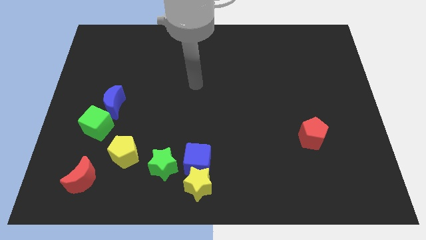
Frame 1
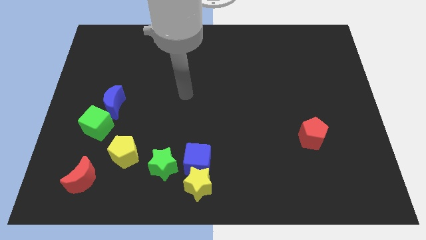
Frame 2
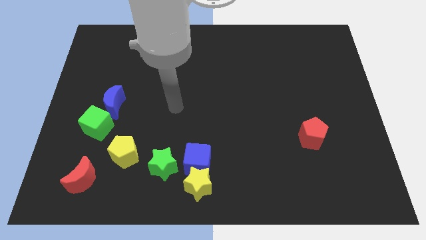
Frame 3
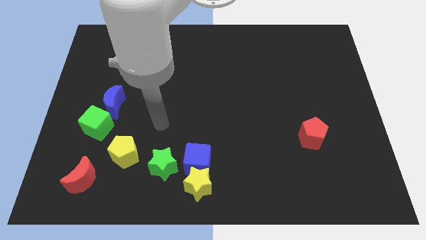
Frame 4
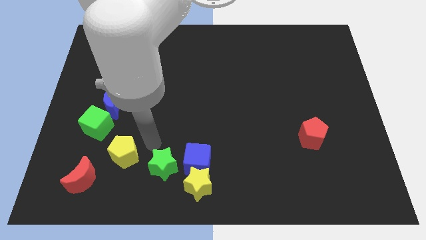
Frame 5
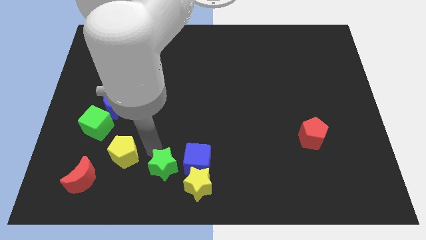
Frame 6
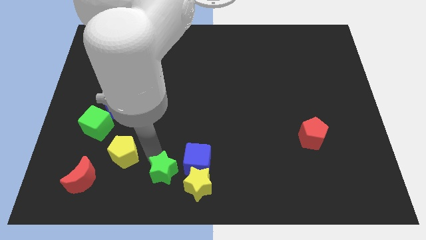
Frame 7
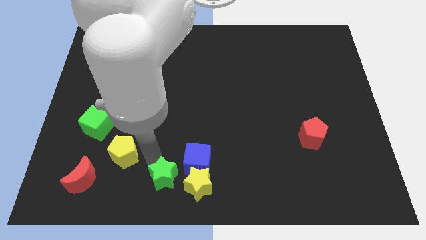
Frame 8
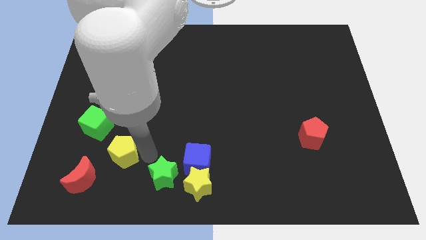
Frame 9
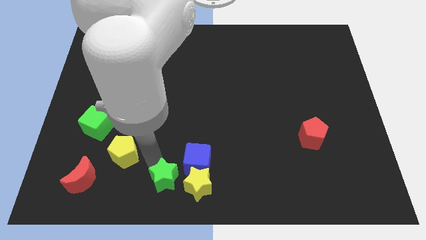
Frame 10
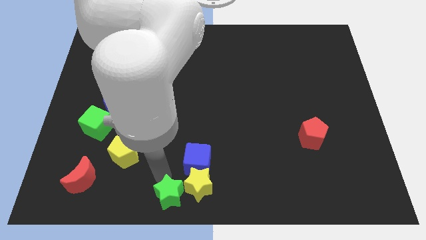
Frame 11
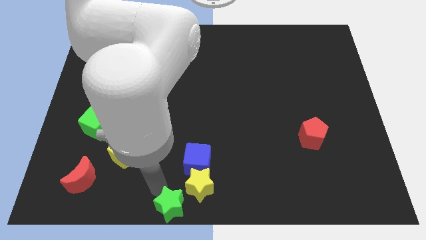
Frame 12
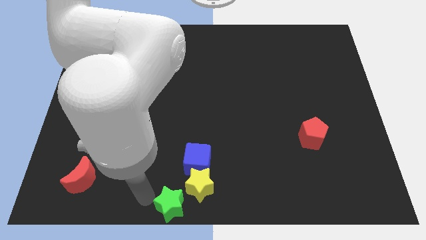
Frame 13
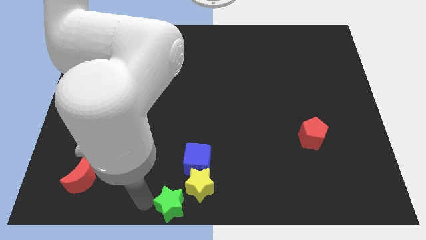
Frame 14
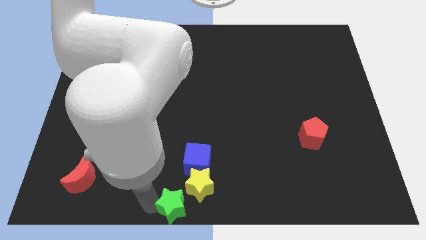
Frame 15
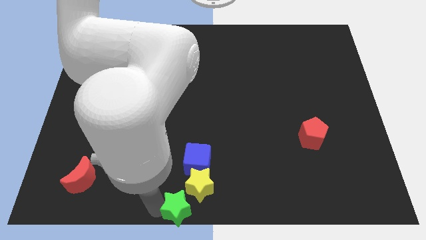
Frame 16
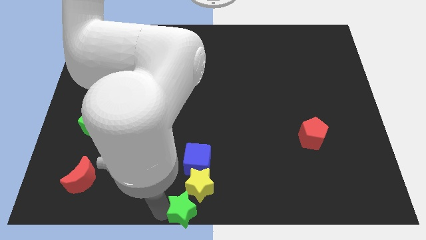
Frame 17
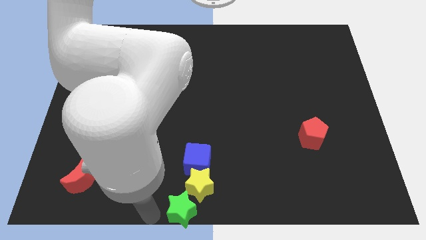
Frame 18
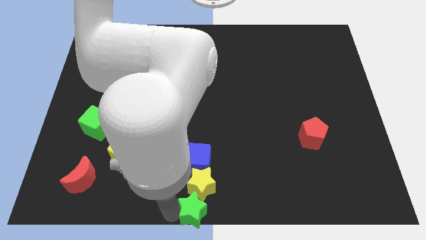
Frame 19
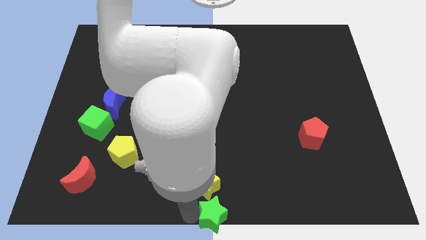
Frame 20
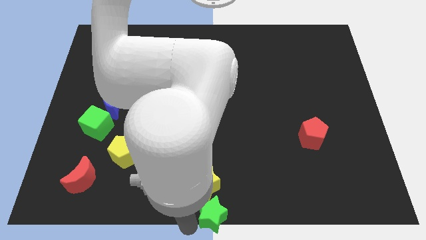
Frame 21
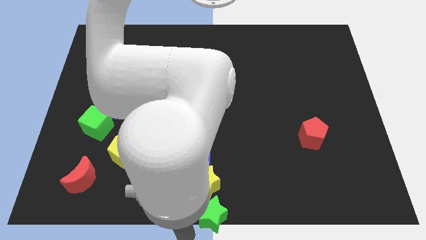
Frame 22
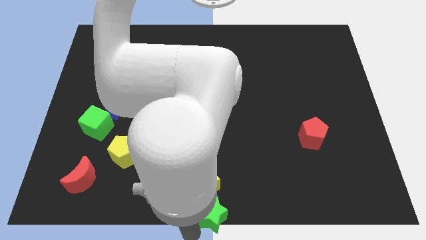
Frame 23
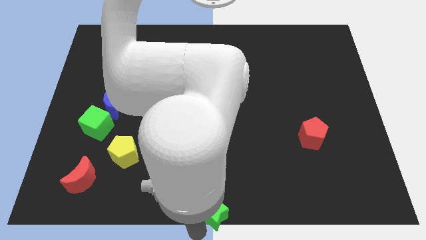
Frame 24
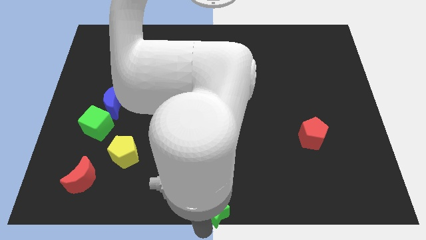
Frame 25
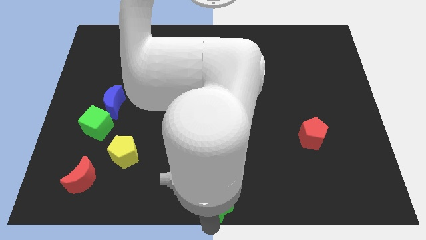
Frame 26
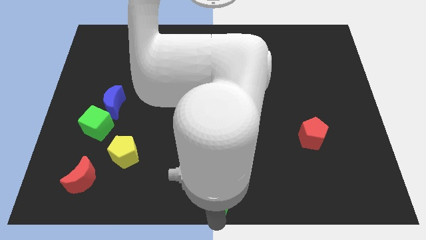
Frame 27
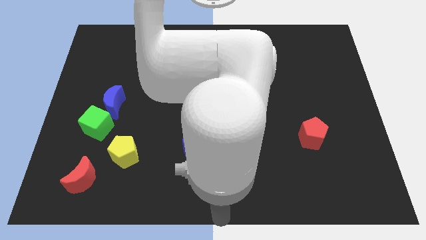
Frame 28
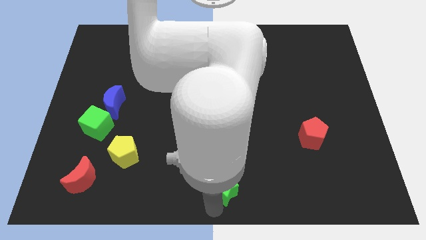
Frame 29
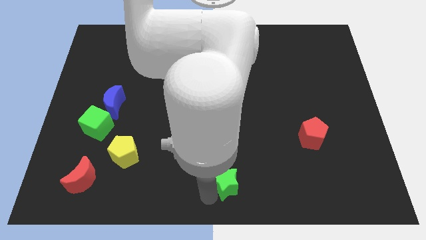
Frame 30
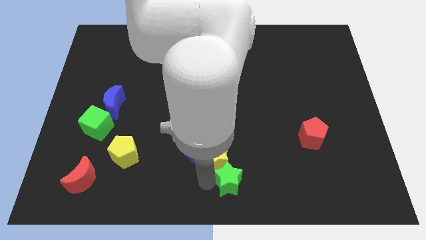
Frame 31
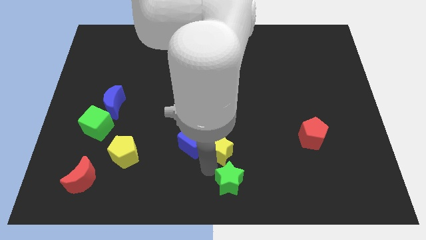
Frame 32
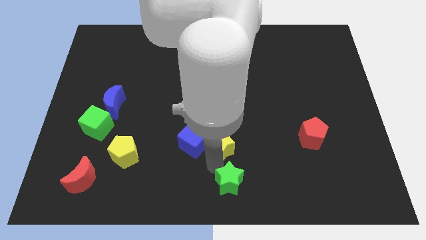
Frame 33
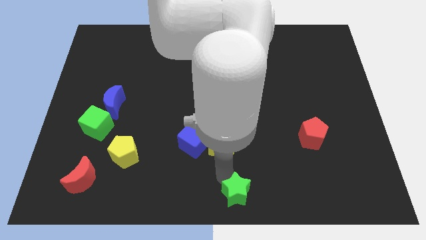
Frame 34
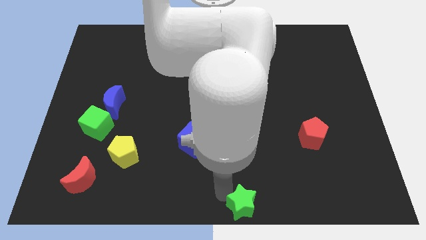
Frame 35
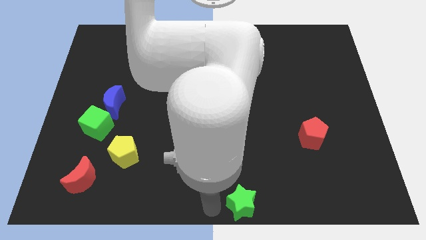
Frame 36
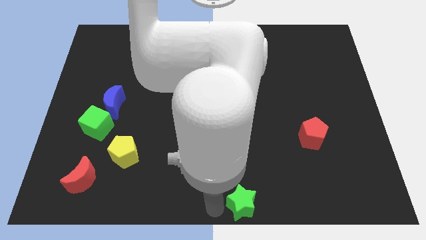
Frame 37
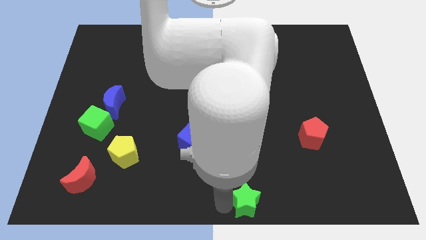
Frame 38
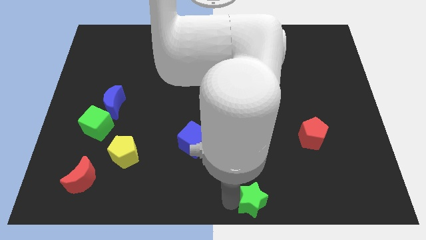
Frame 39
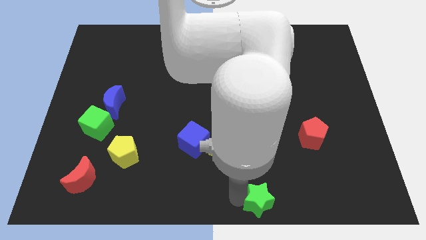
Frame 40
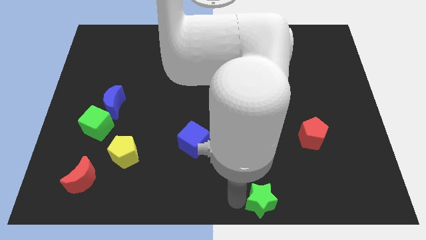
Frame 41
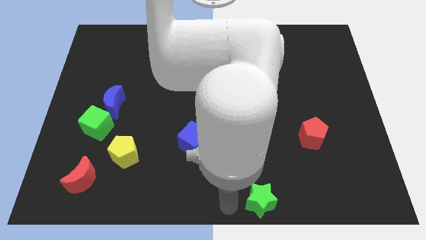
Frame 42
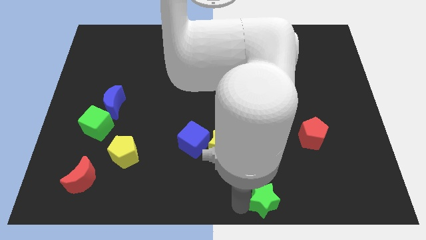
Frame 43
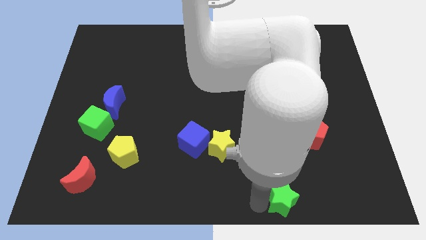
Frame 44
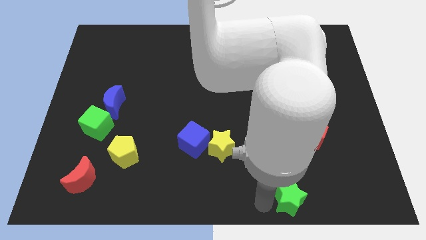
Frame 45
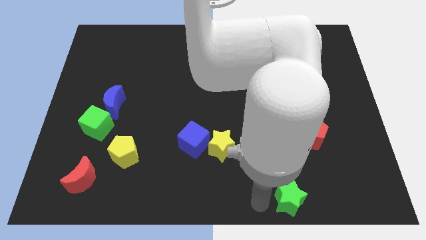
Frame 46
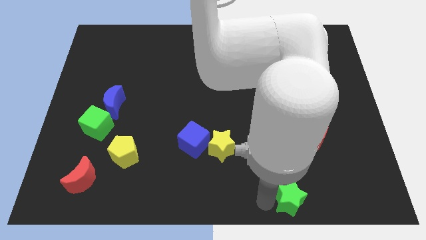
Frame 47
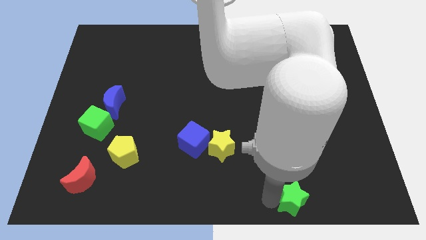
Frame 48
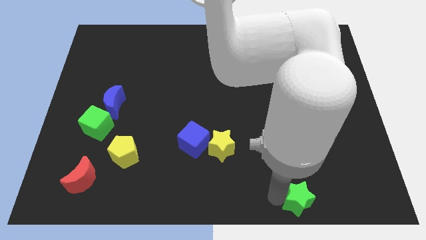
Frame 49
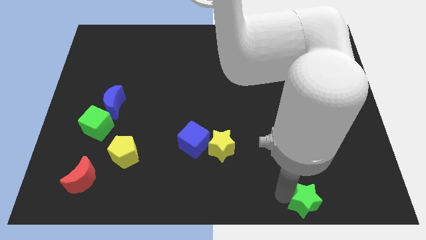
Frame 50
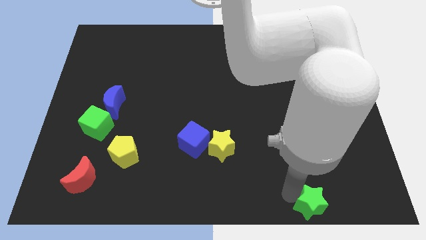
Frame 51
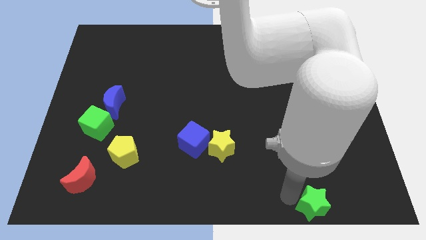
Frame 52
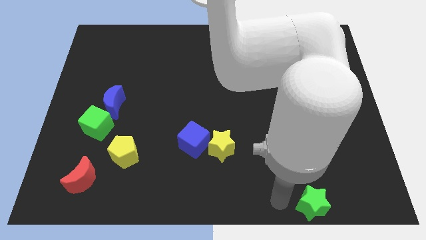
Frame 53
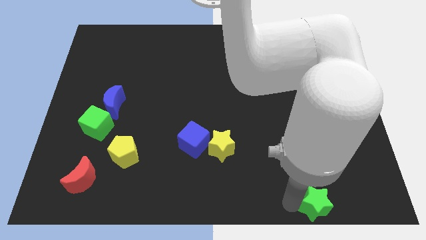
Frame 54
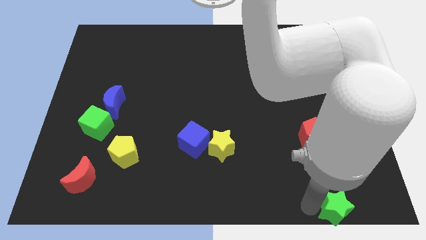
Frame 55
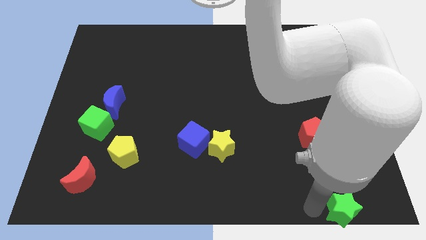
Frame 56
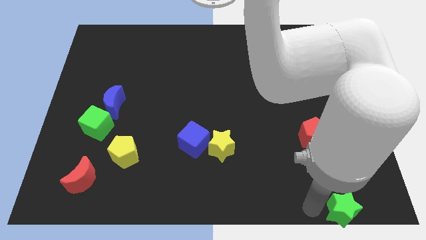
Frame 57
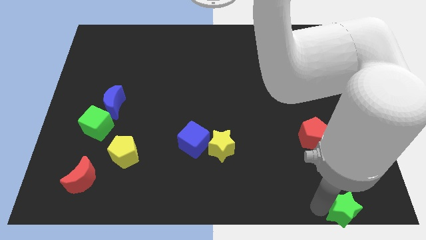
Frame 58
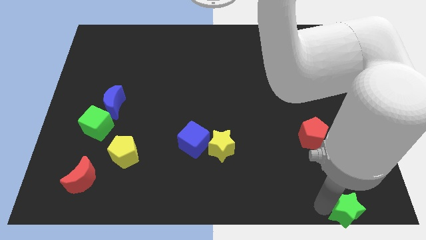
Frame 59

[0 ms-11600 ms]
put the green star to the lower right corner

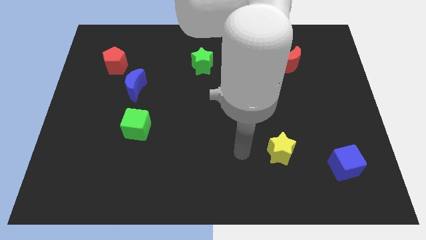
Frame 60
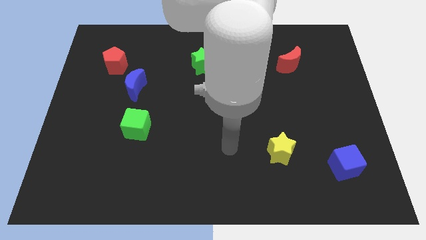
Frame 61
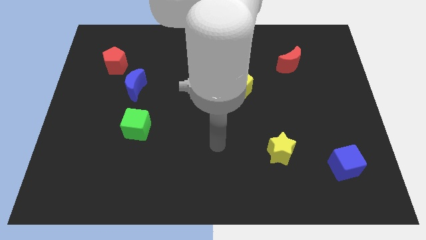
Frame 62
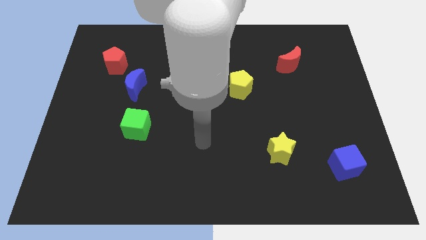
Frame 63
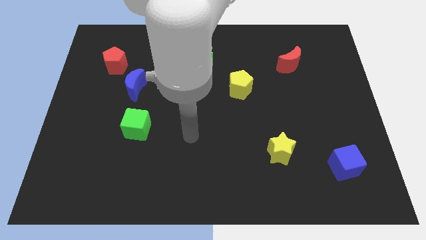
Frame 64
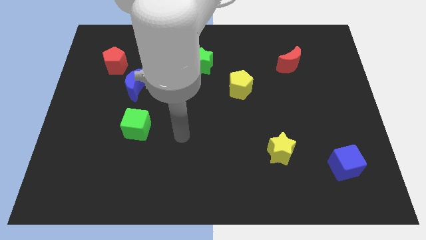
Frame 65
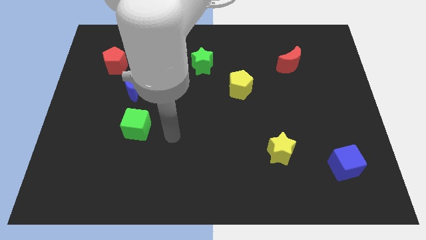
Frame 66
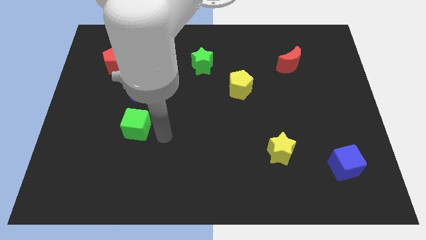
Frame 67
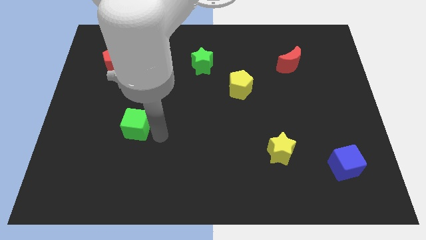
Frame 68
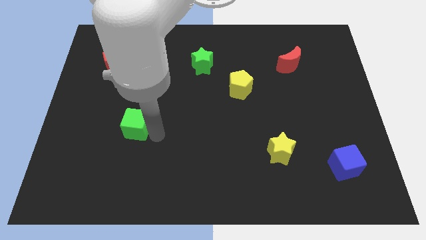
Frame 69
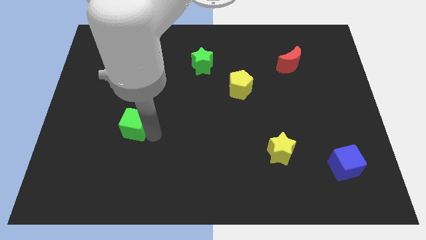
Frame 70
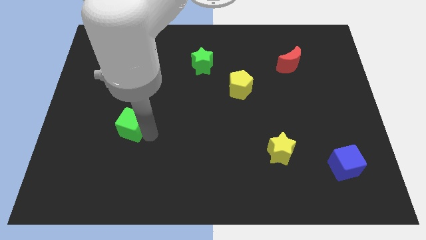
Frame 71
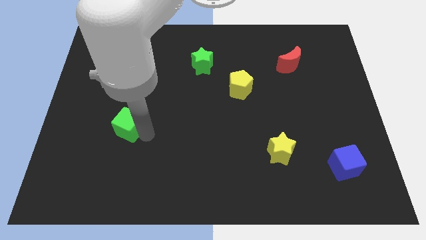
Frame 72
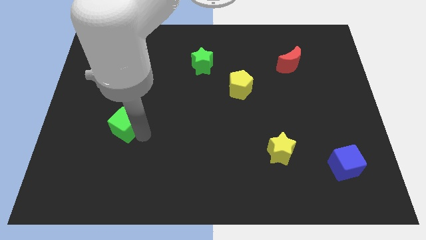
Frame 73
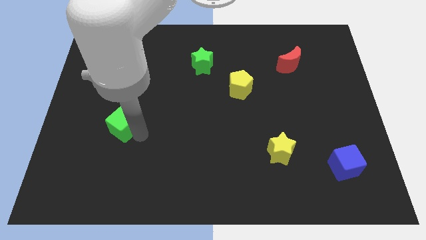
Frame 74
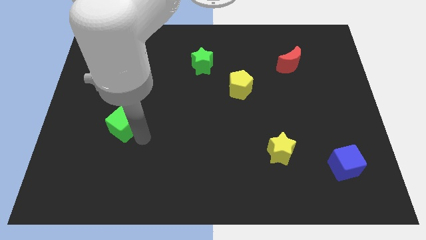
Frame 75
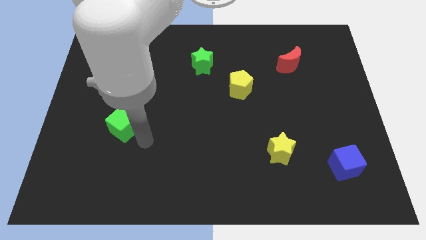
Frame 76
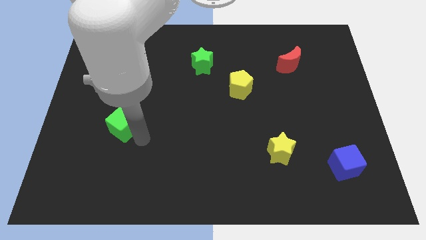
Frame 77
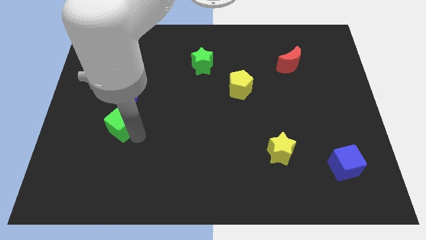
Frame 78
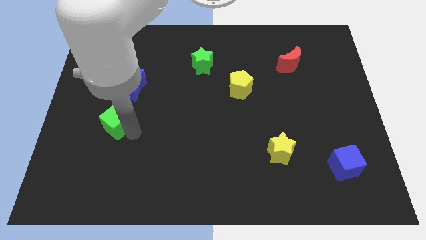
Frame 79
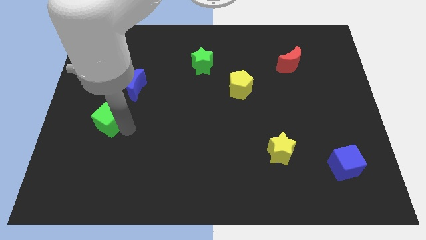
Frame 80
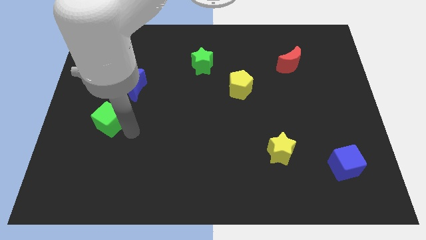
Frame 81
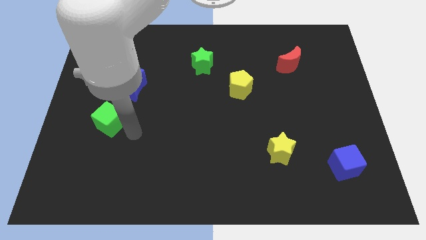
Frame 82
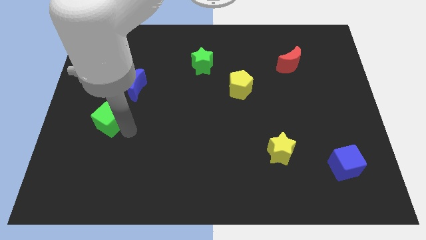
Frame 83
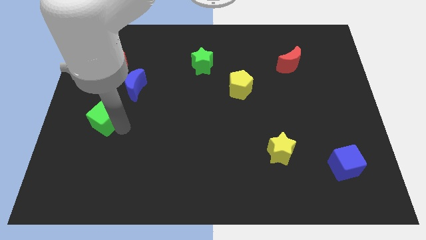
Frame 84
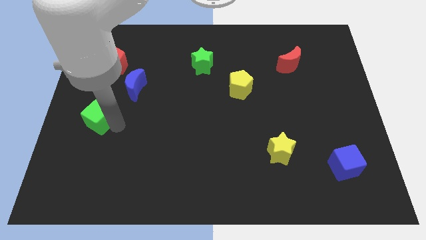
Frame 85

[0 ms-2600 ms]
move the green cube to the center left
